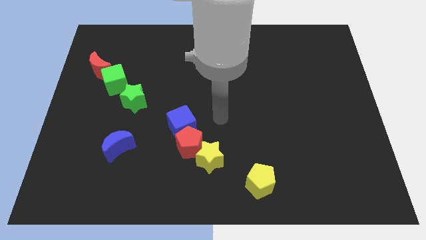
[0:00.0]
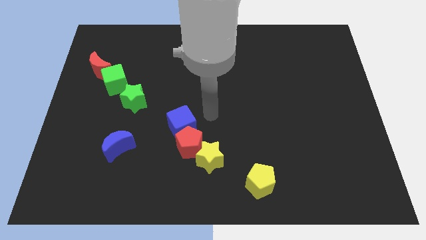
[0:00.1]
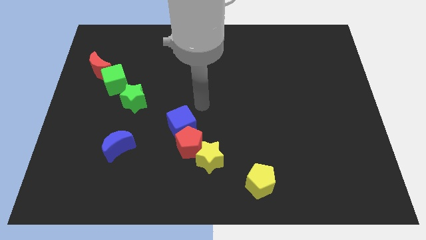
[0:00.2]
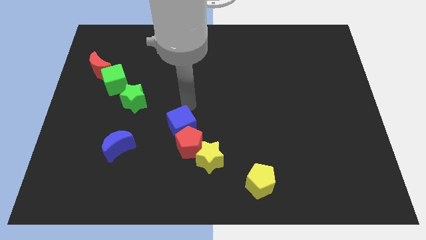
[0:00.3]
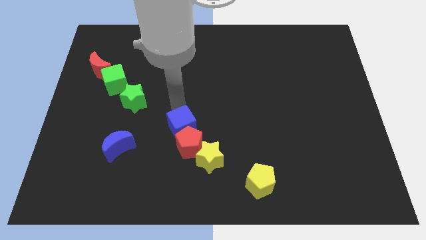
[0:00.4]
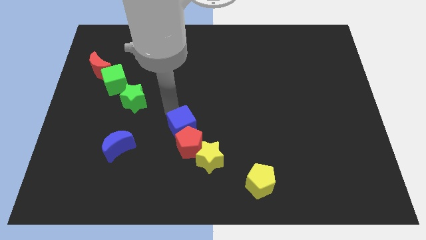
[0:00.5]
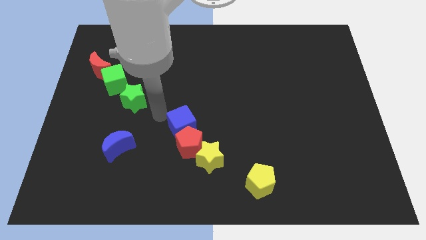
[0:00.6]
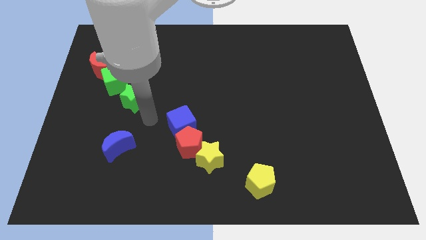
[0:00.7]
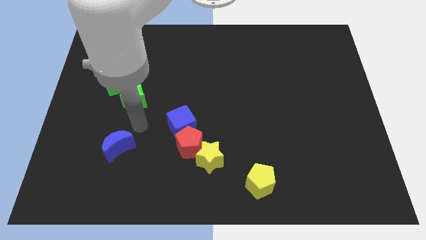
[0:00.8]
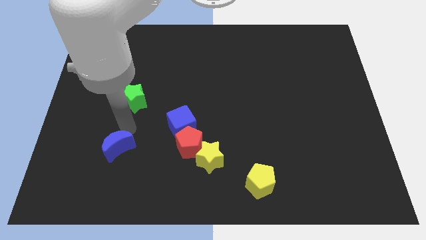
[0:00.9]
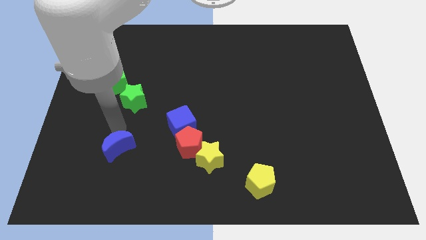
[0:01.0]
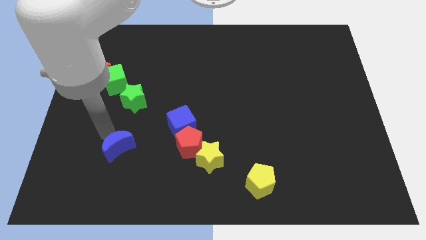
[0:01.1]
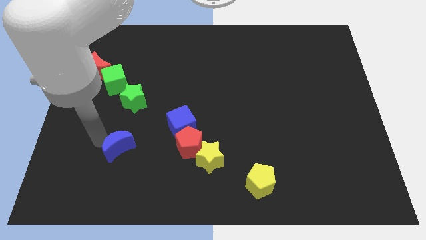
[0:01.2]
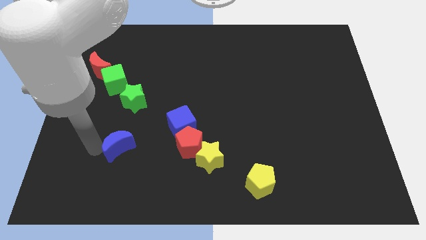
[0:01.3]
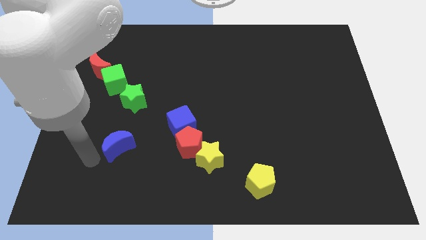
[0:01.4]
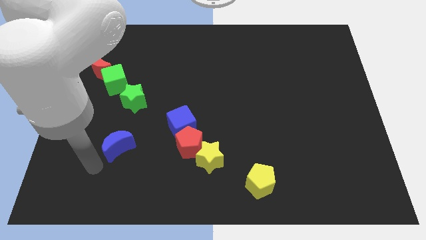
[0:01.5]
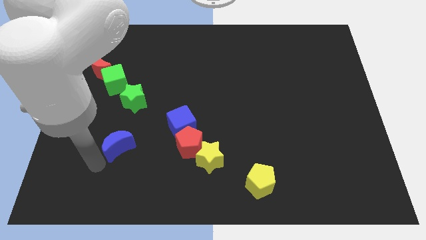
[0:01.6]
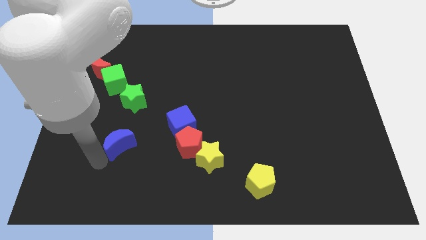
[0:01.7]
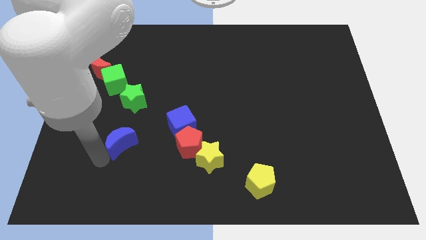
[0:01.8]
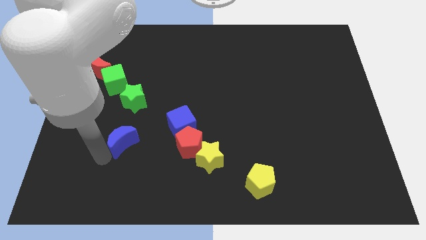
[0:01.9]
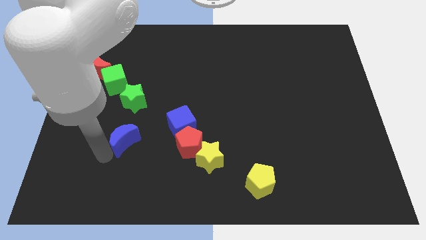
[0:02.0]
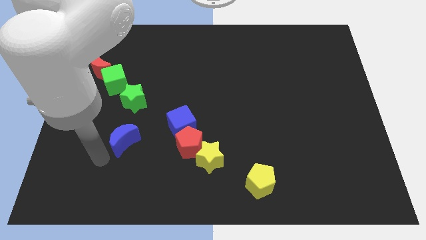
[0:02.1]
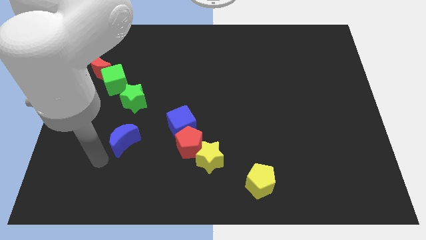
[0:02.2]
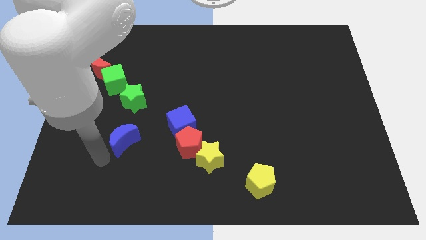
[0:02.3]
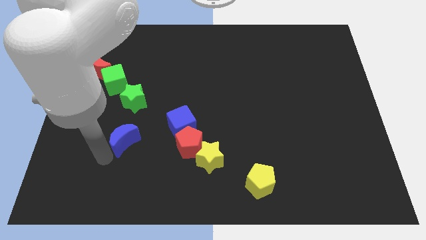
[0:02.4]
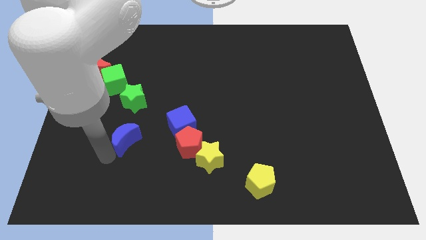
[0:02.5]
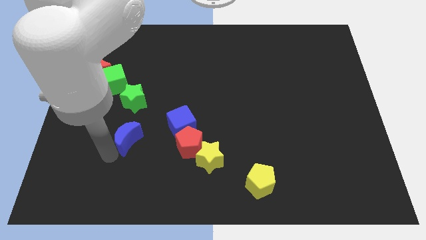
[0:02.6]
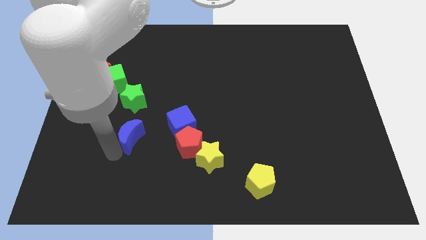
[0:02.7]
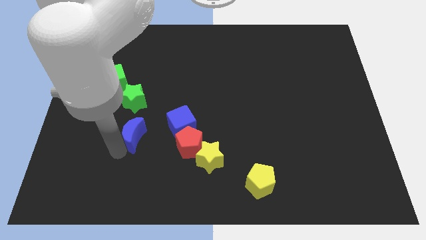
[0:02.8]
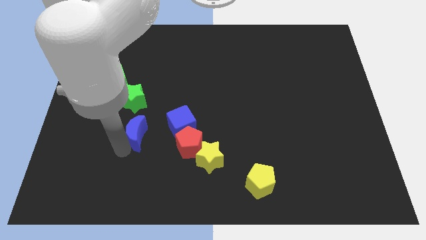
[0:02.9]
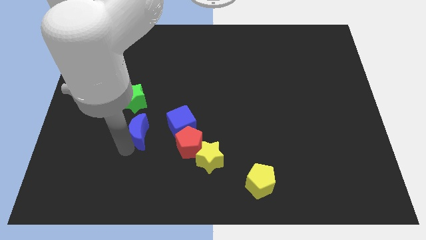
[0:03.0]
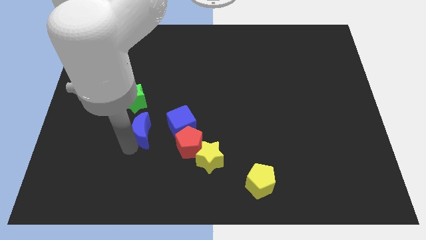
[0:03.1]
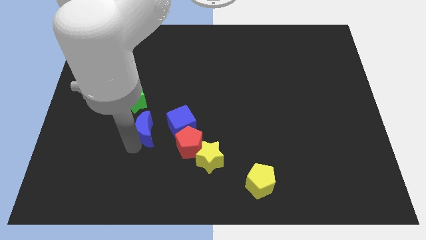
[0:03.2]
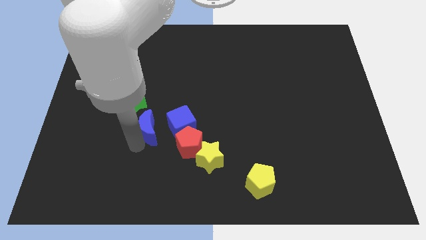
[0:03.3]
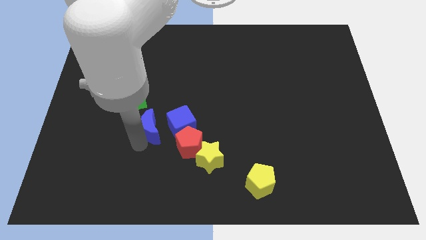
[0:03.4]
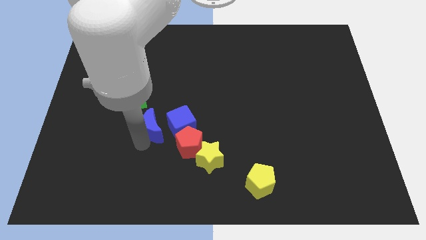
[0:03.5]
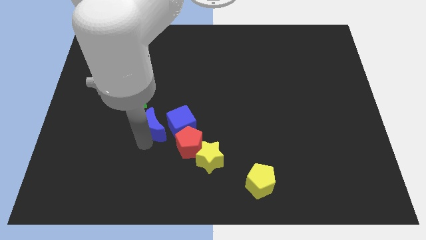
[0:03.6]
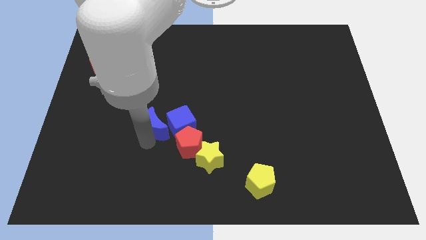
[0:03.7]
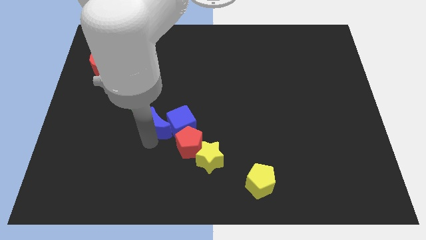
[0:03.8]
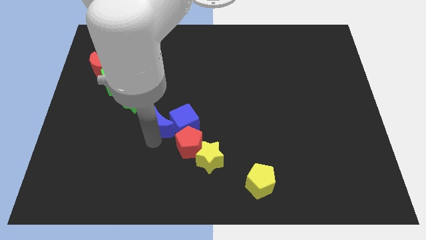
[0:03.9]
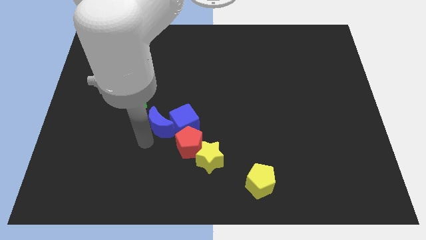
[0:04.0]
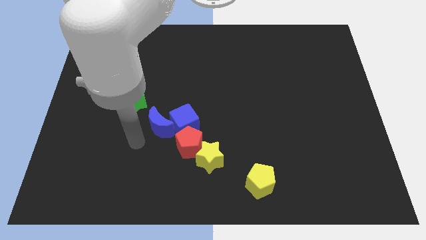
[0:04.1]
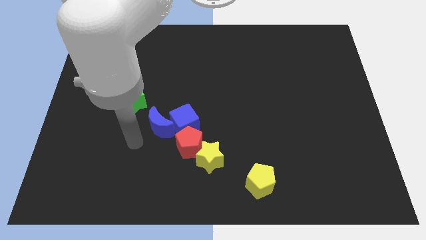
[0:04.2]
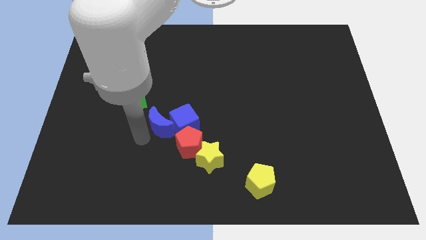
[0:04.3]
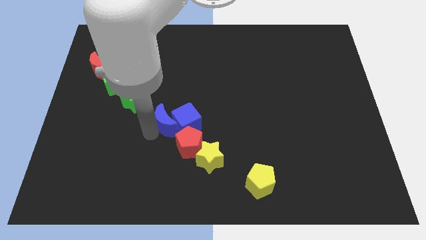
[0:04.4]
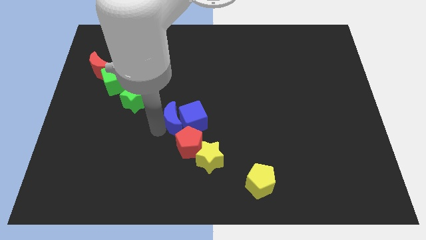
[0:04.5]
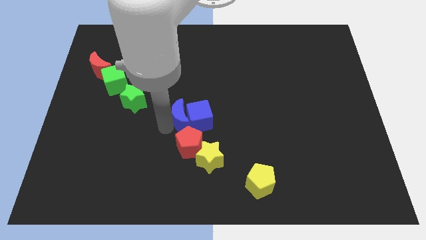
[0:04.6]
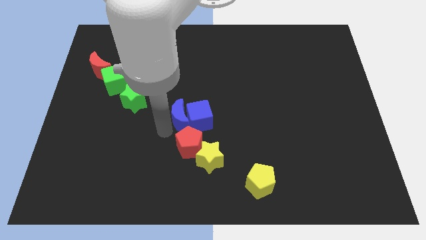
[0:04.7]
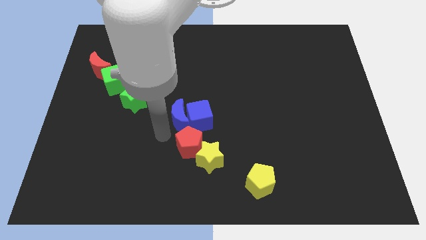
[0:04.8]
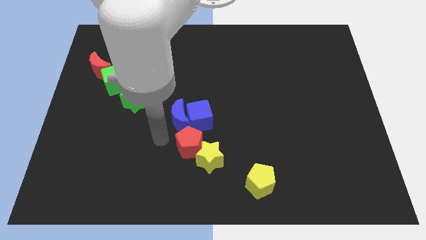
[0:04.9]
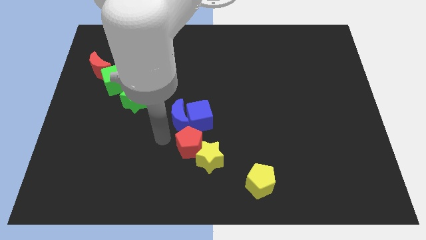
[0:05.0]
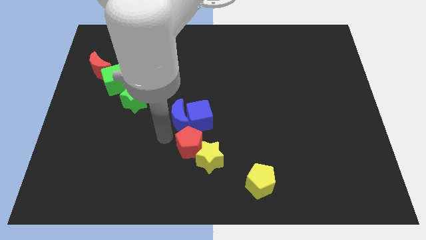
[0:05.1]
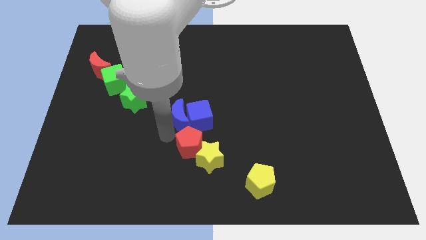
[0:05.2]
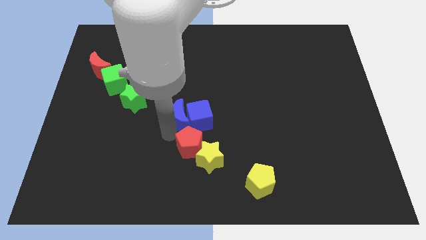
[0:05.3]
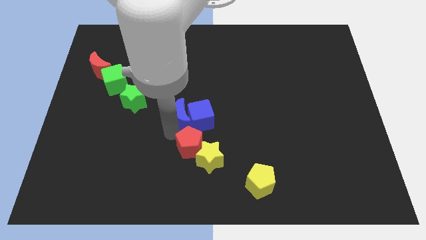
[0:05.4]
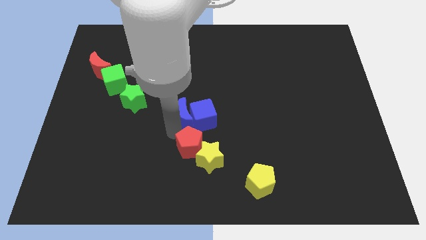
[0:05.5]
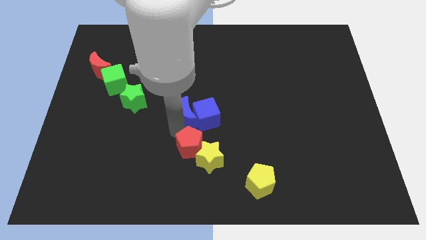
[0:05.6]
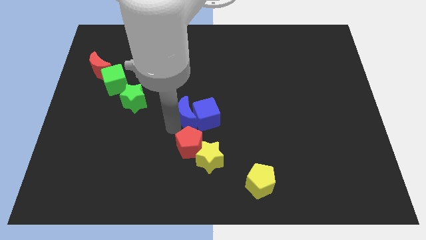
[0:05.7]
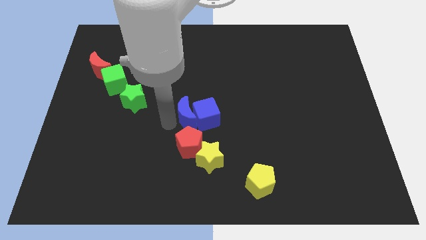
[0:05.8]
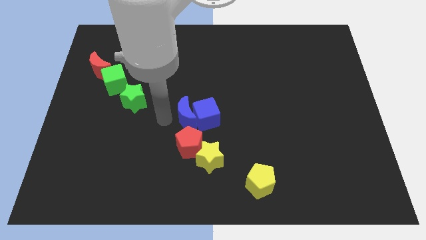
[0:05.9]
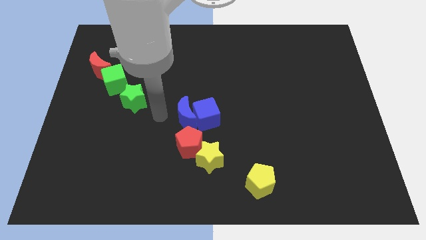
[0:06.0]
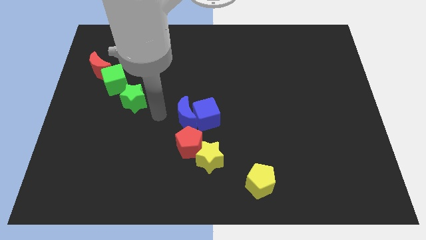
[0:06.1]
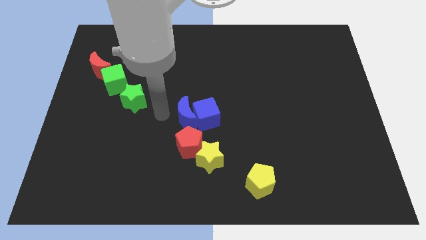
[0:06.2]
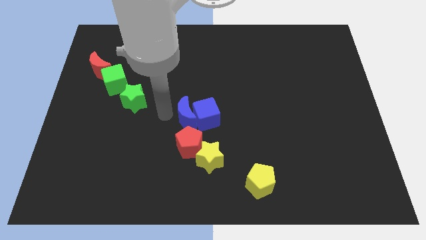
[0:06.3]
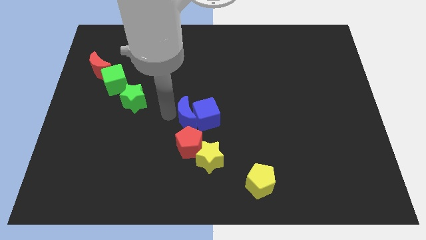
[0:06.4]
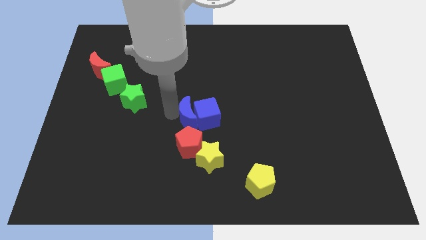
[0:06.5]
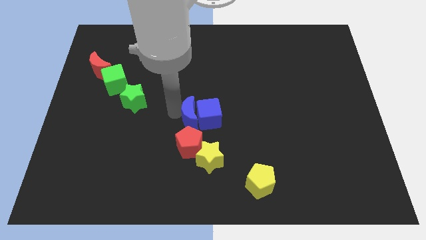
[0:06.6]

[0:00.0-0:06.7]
put the blue moon above the yellow star

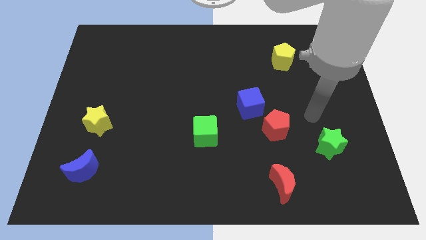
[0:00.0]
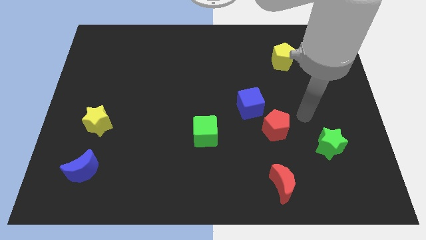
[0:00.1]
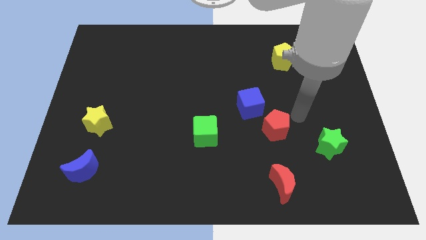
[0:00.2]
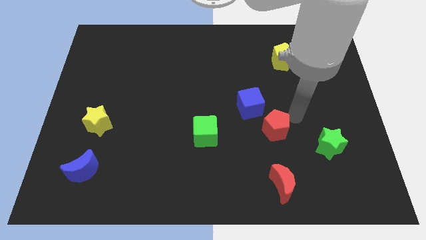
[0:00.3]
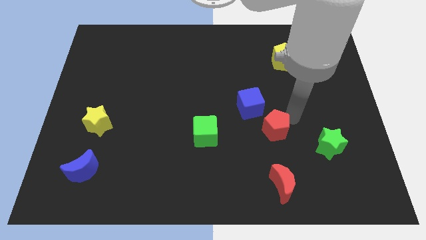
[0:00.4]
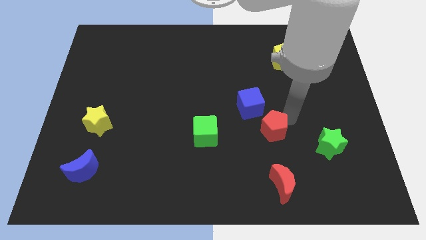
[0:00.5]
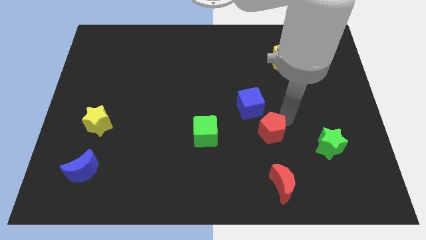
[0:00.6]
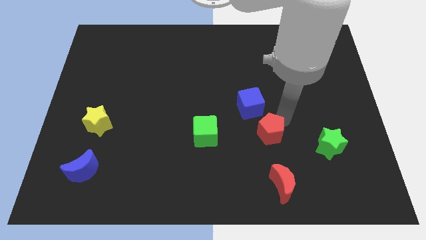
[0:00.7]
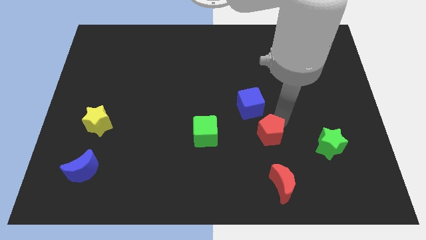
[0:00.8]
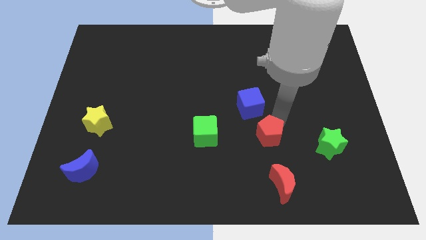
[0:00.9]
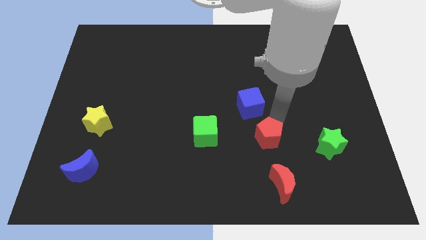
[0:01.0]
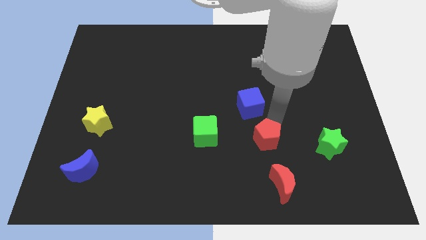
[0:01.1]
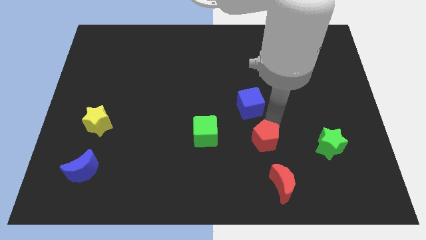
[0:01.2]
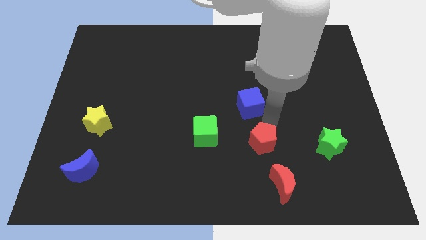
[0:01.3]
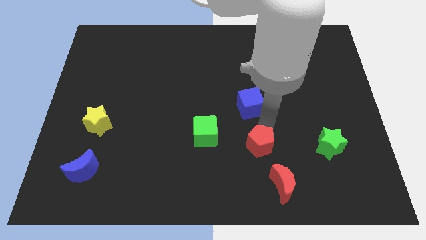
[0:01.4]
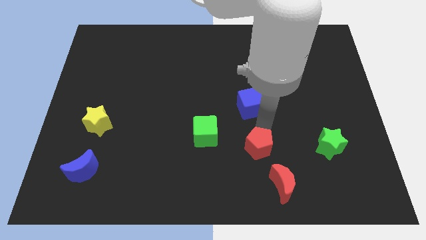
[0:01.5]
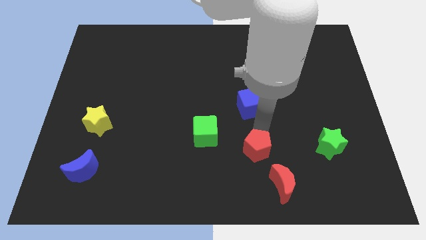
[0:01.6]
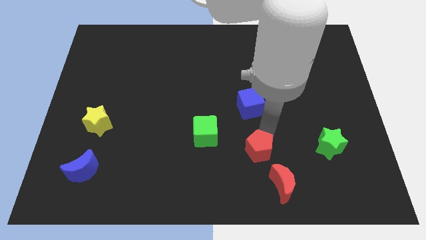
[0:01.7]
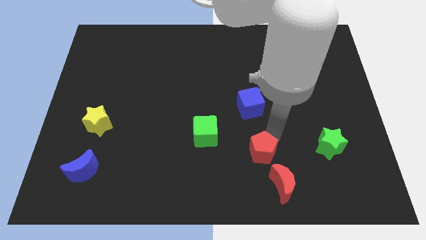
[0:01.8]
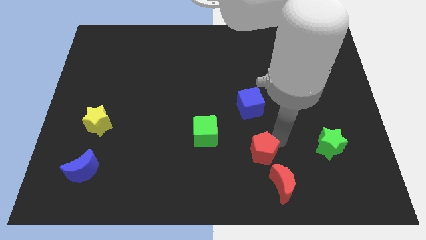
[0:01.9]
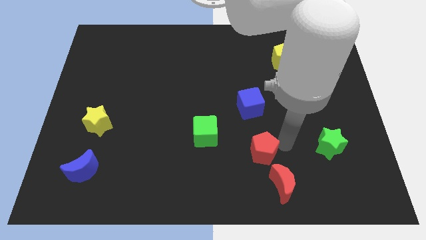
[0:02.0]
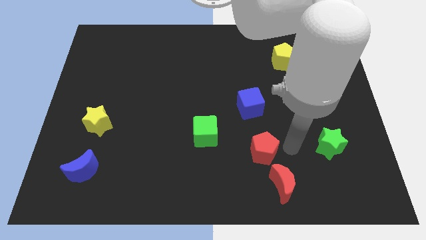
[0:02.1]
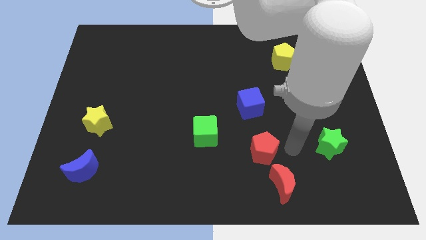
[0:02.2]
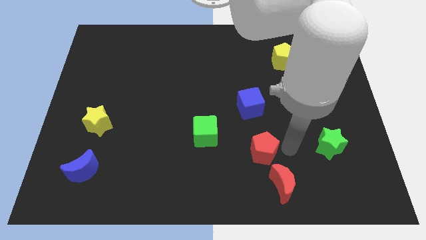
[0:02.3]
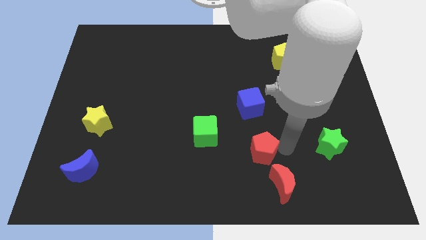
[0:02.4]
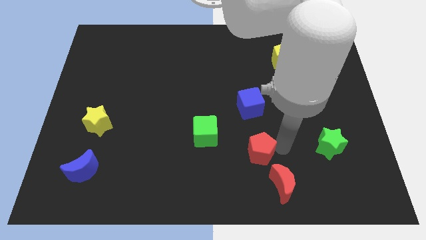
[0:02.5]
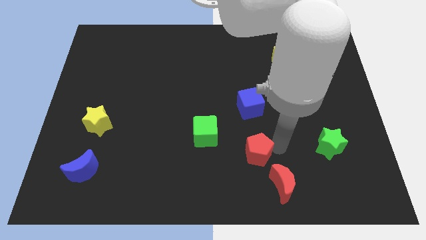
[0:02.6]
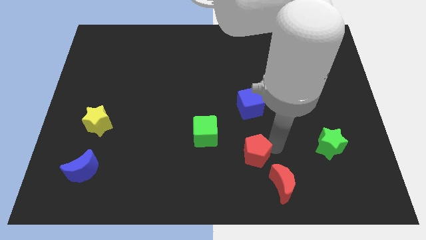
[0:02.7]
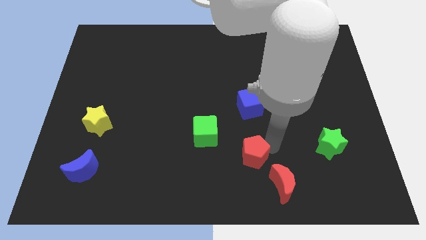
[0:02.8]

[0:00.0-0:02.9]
move the red pentagon to the bottom right of the green cube
